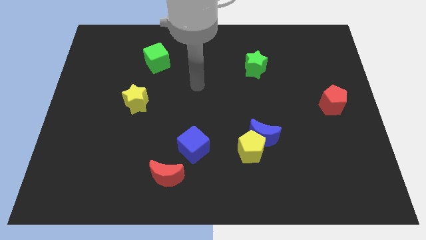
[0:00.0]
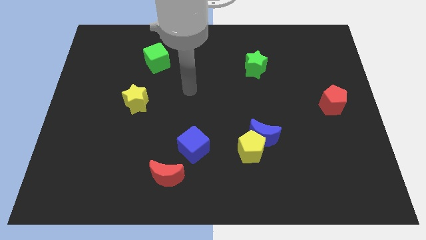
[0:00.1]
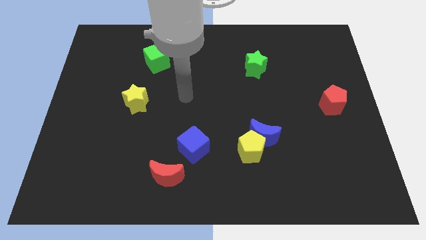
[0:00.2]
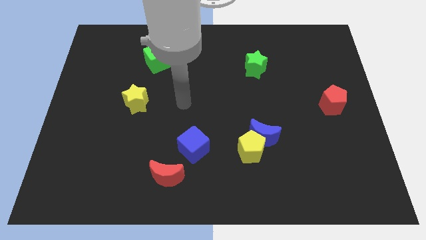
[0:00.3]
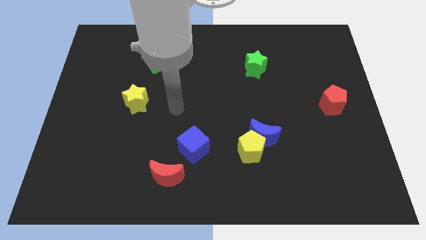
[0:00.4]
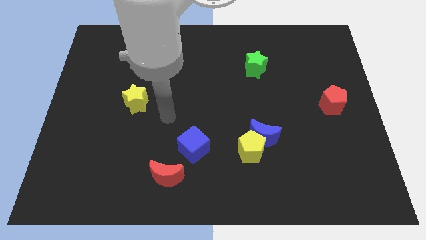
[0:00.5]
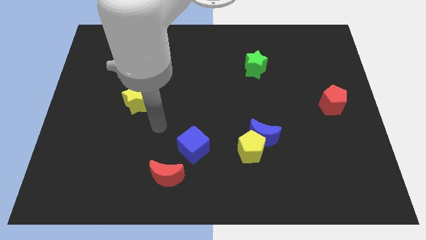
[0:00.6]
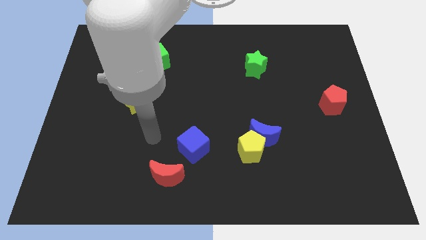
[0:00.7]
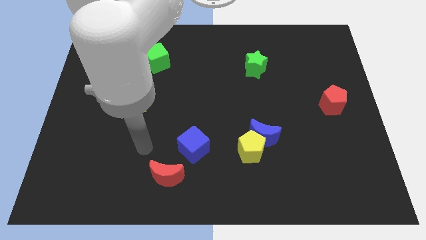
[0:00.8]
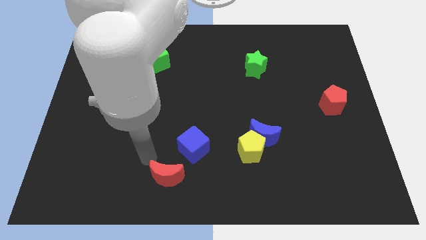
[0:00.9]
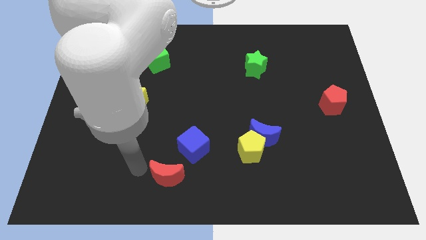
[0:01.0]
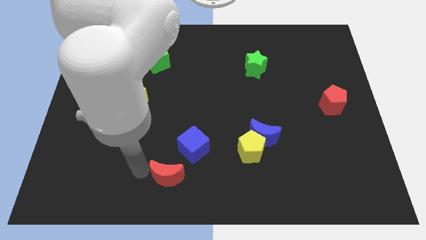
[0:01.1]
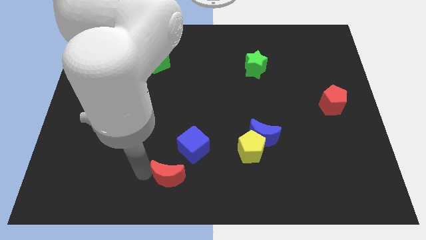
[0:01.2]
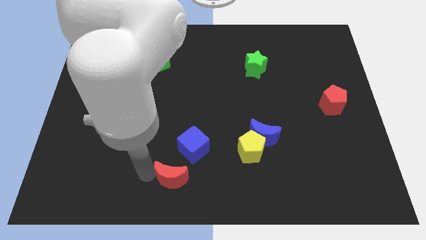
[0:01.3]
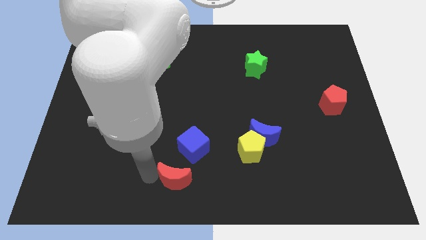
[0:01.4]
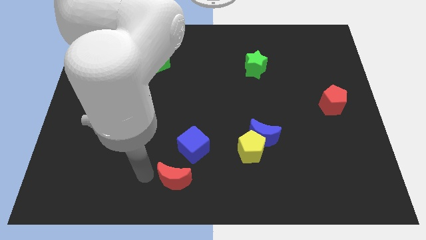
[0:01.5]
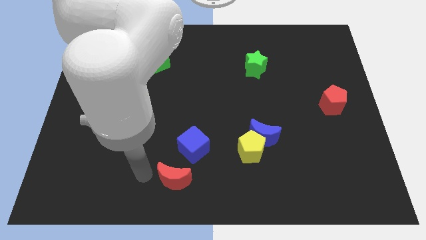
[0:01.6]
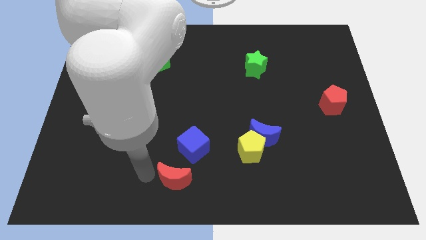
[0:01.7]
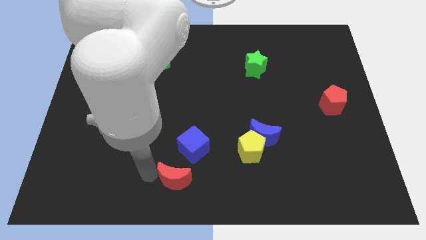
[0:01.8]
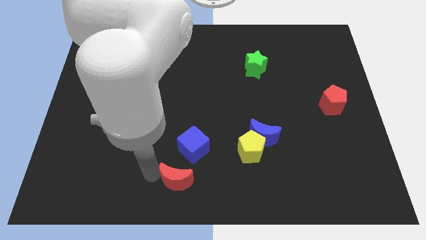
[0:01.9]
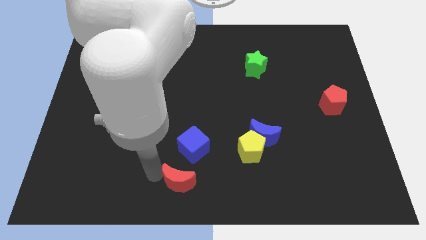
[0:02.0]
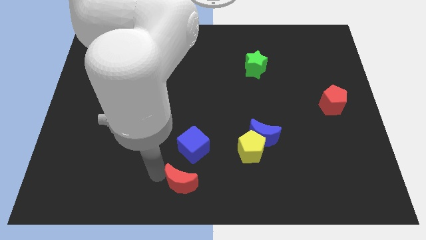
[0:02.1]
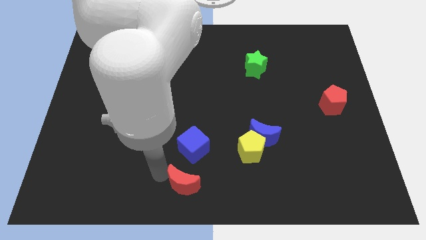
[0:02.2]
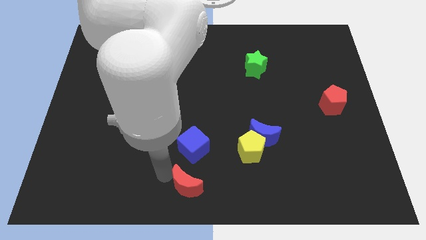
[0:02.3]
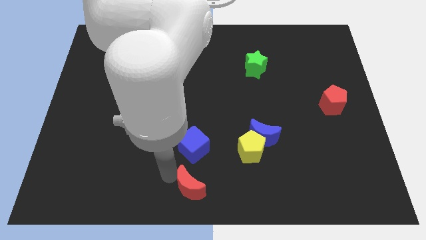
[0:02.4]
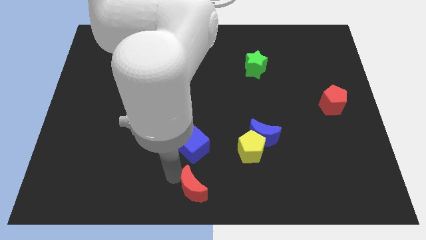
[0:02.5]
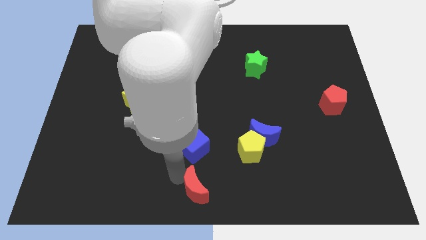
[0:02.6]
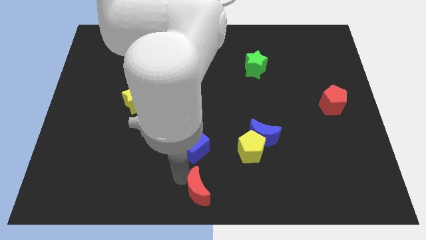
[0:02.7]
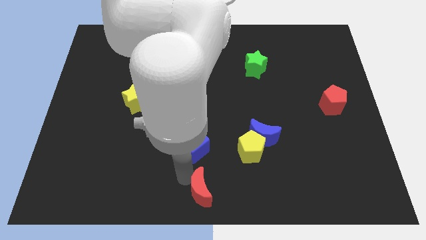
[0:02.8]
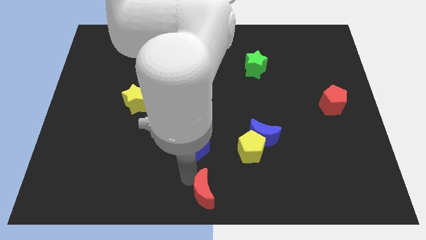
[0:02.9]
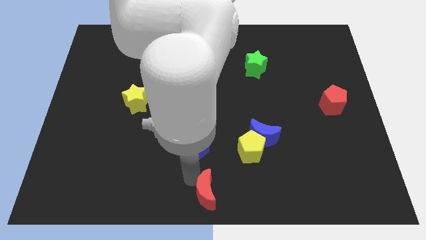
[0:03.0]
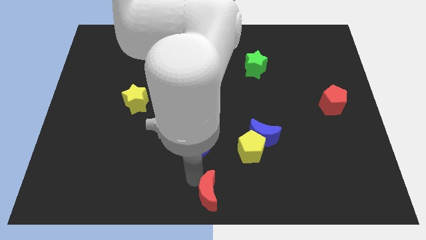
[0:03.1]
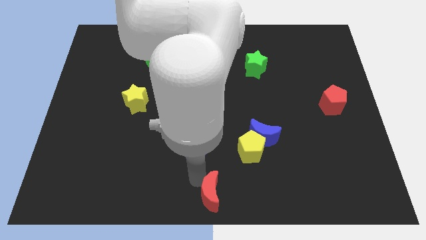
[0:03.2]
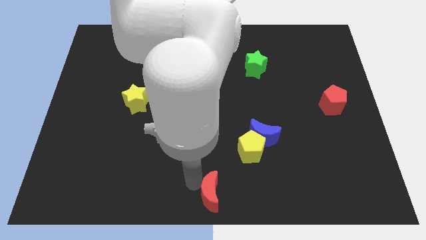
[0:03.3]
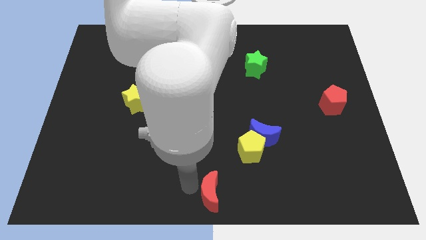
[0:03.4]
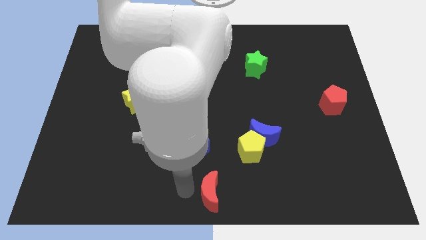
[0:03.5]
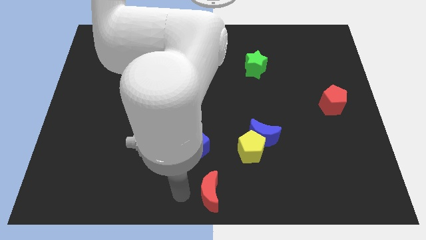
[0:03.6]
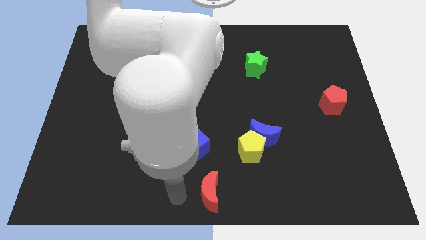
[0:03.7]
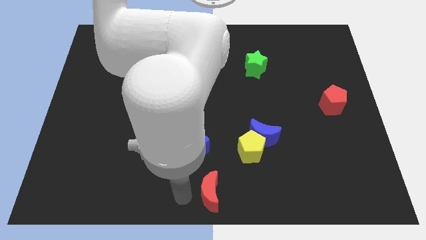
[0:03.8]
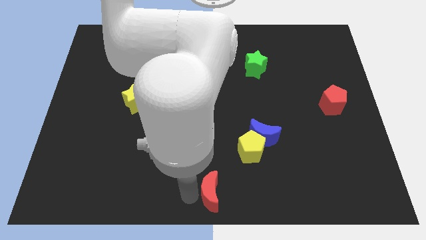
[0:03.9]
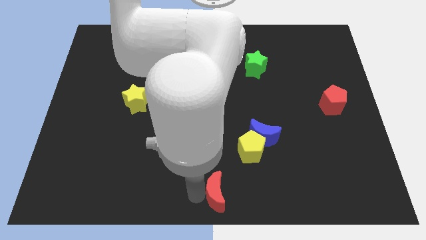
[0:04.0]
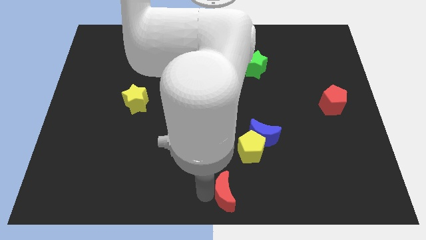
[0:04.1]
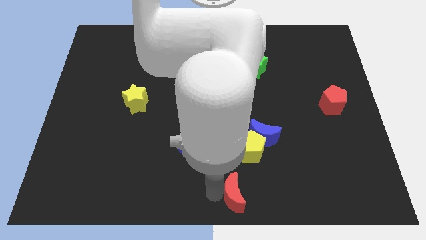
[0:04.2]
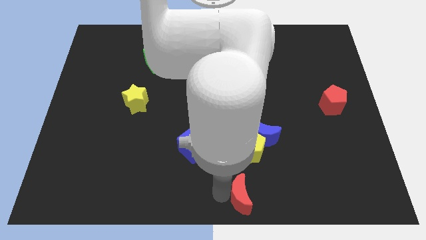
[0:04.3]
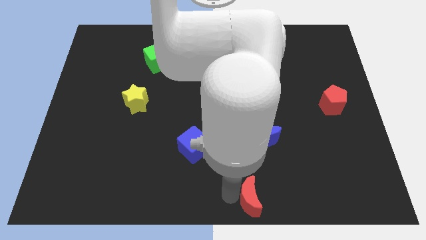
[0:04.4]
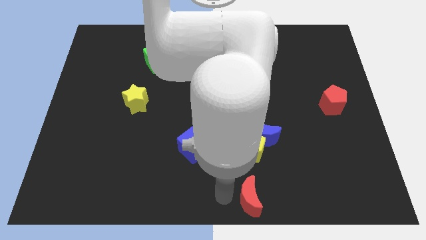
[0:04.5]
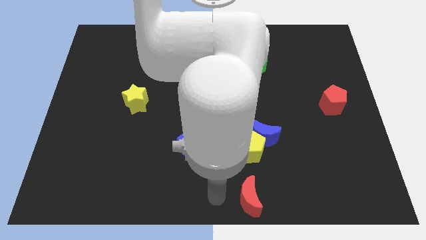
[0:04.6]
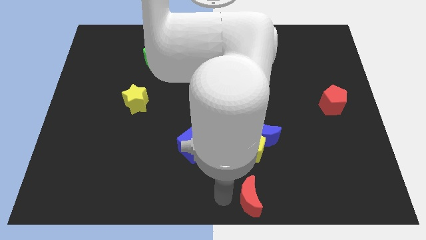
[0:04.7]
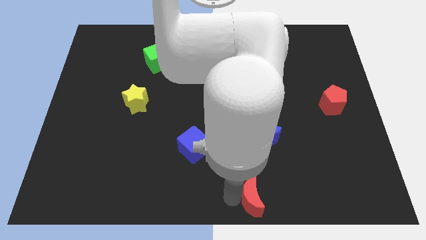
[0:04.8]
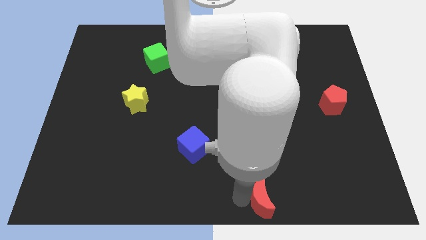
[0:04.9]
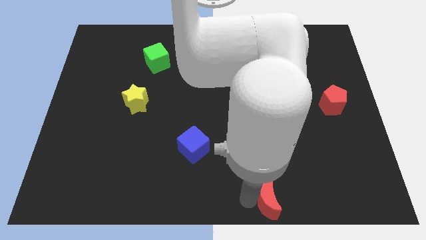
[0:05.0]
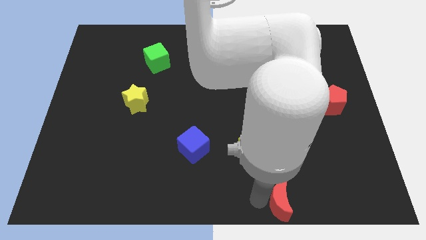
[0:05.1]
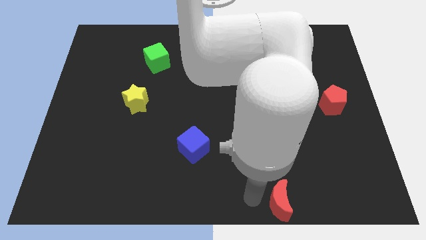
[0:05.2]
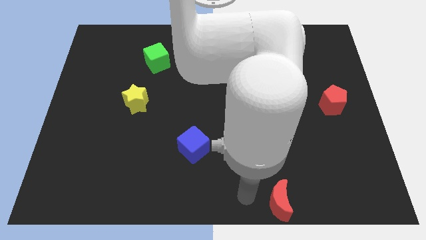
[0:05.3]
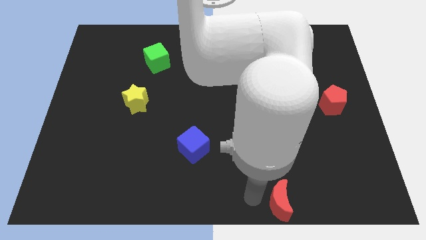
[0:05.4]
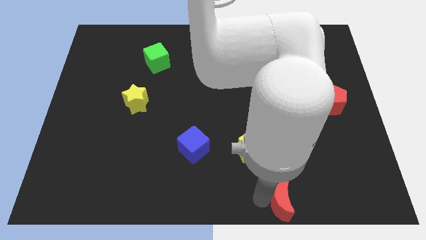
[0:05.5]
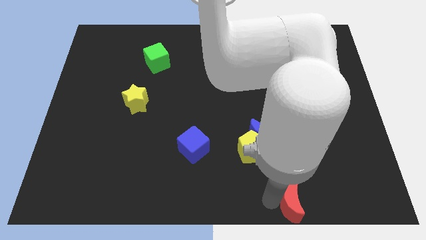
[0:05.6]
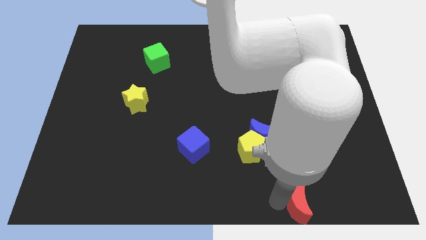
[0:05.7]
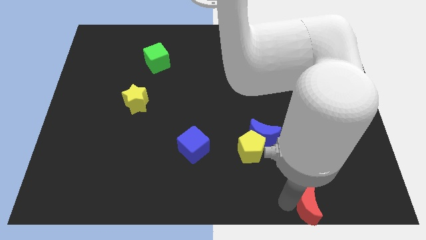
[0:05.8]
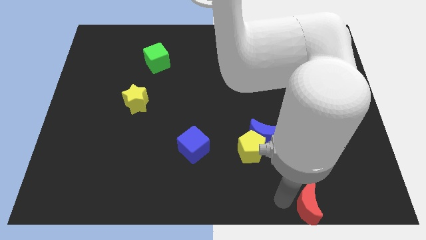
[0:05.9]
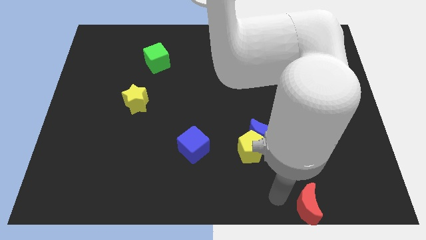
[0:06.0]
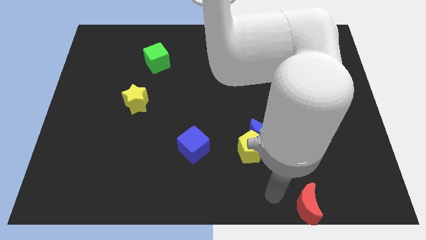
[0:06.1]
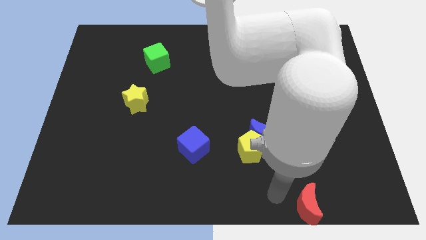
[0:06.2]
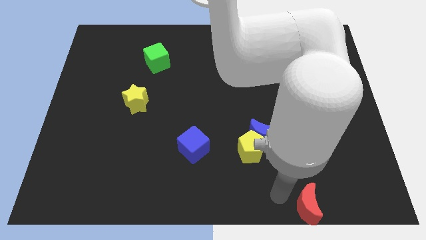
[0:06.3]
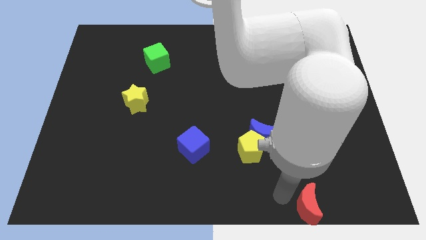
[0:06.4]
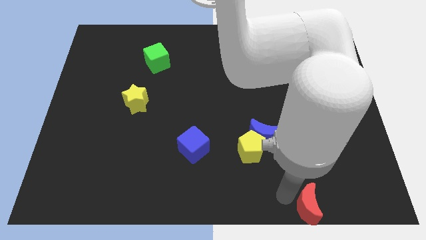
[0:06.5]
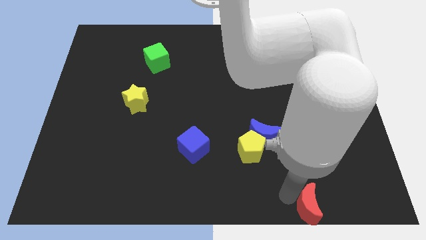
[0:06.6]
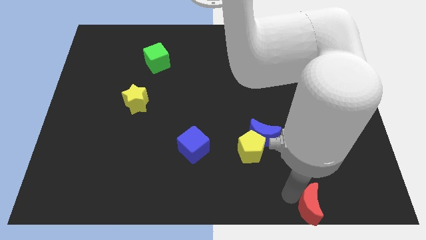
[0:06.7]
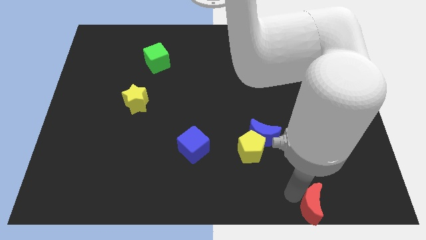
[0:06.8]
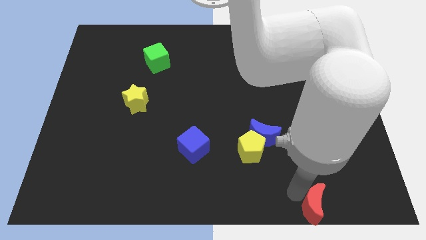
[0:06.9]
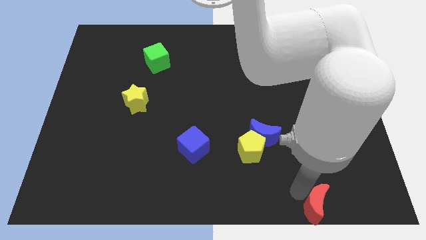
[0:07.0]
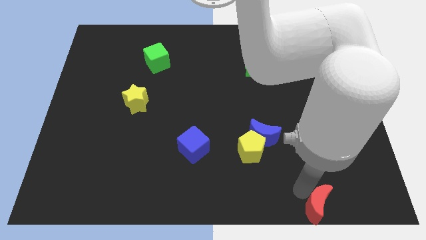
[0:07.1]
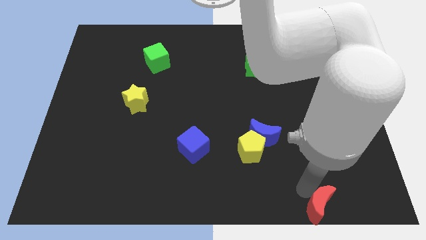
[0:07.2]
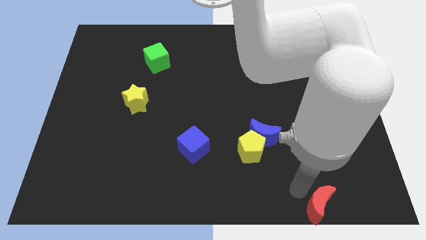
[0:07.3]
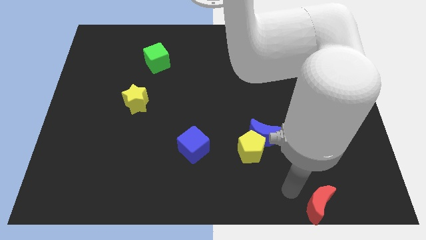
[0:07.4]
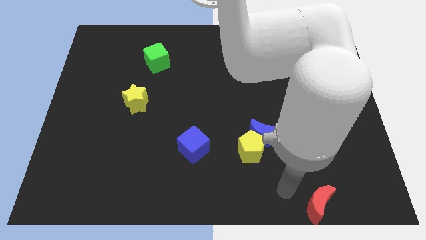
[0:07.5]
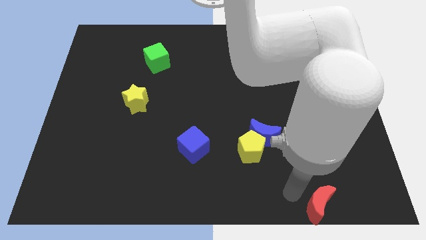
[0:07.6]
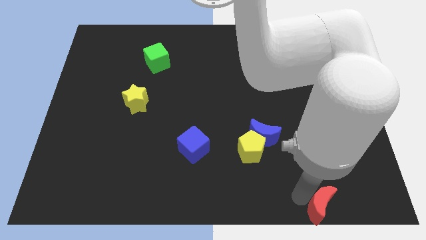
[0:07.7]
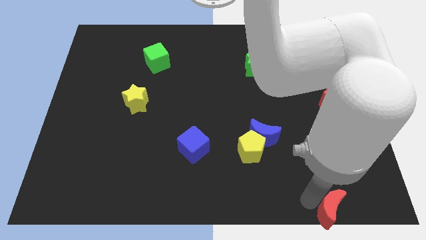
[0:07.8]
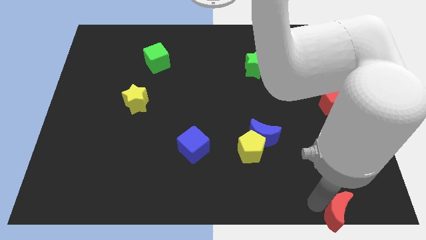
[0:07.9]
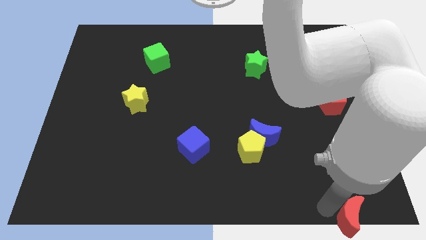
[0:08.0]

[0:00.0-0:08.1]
push the red moon to the bottom right corner
